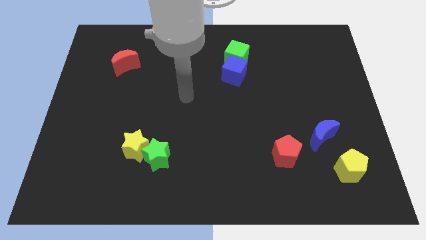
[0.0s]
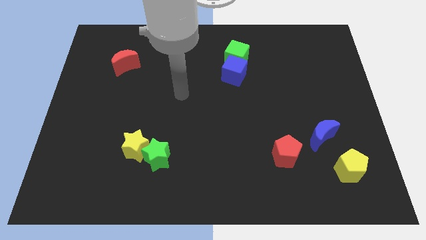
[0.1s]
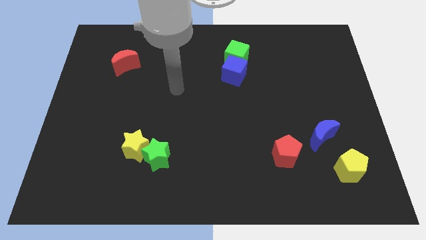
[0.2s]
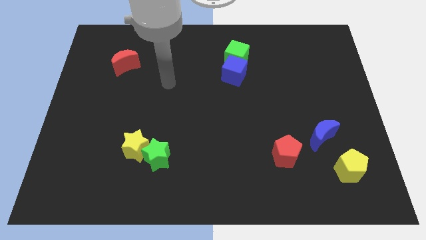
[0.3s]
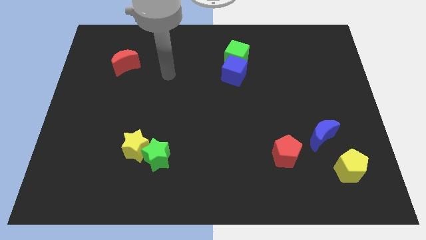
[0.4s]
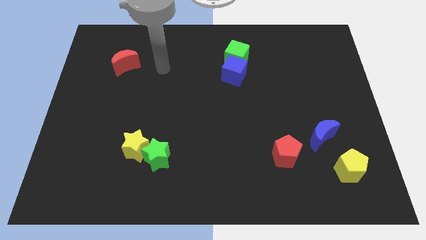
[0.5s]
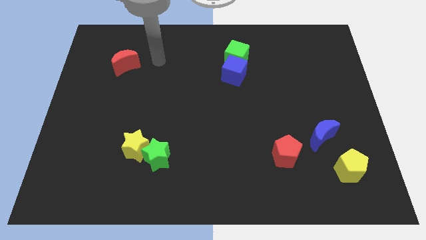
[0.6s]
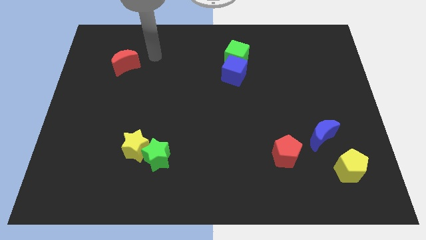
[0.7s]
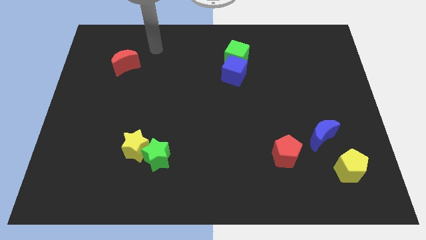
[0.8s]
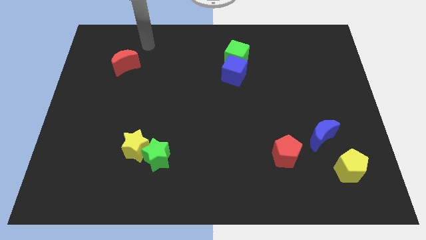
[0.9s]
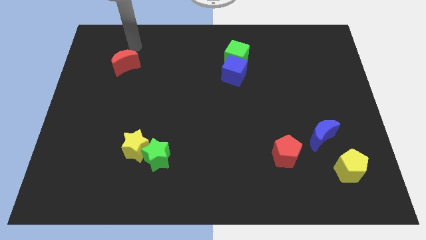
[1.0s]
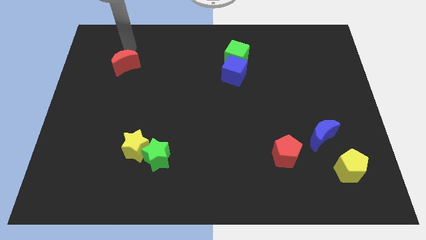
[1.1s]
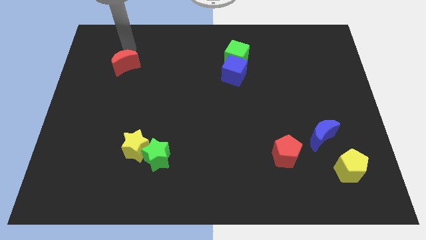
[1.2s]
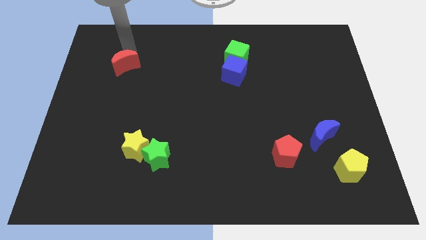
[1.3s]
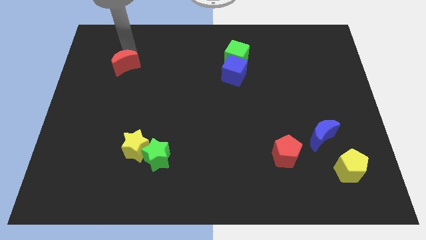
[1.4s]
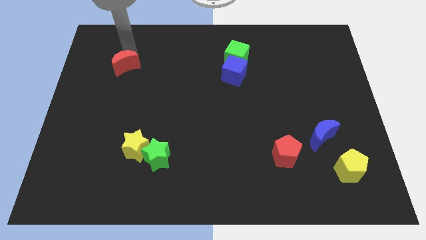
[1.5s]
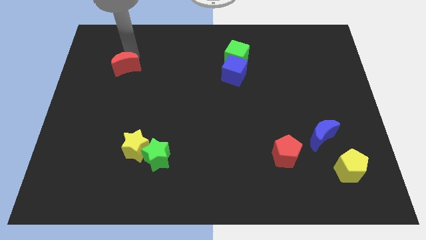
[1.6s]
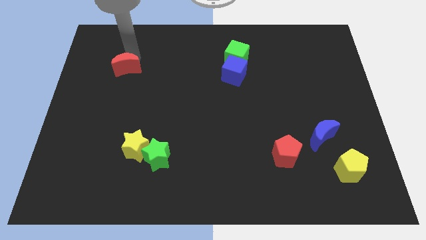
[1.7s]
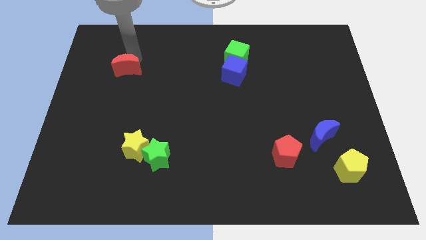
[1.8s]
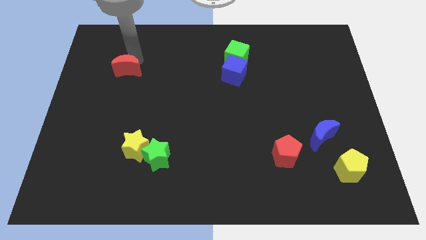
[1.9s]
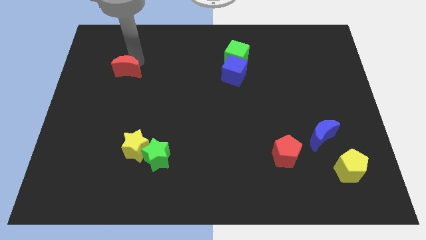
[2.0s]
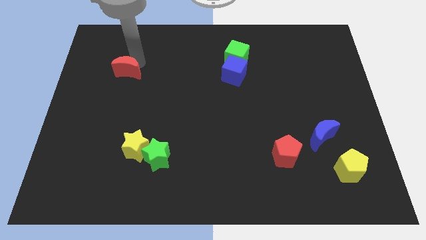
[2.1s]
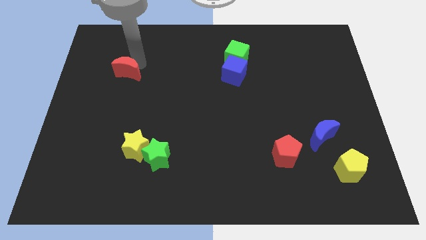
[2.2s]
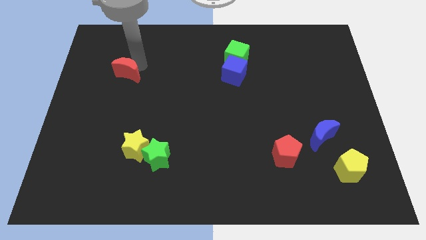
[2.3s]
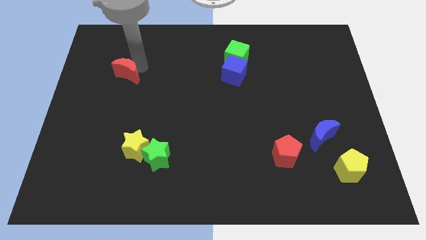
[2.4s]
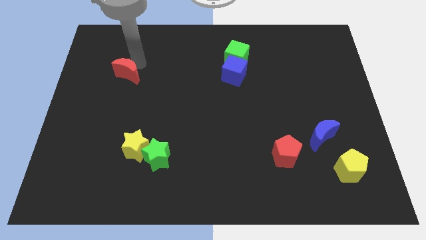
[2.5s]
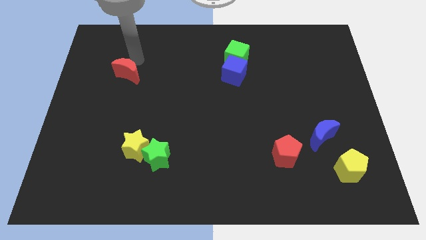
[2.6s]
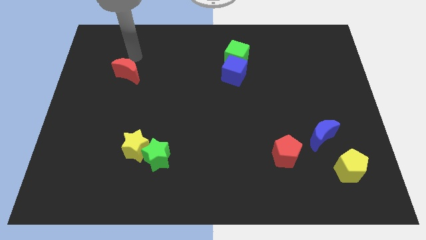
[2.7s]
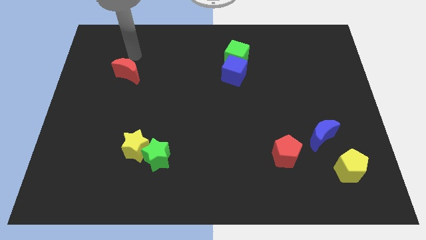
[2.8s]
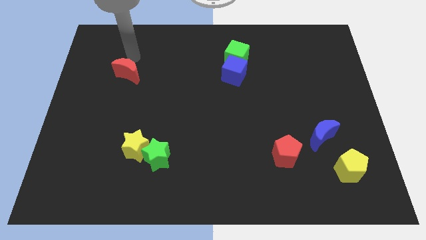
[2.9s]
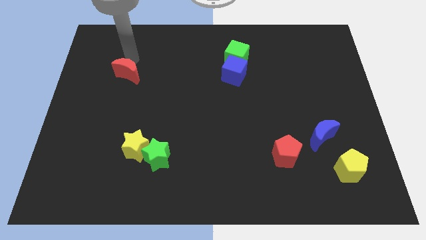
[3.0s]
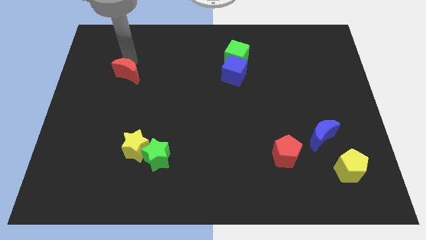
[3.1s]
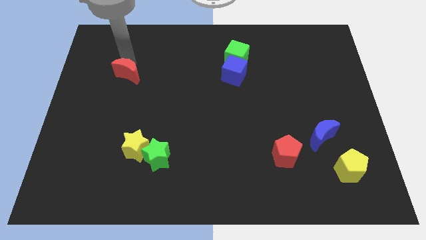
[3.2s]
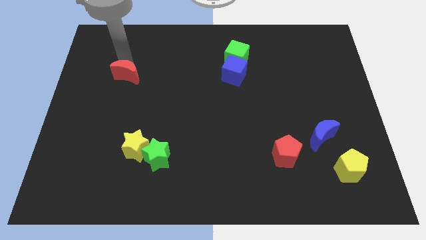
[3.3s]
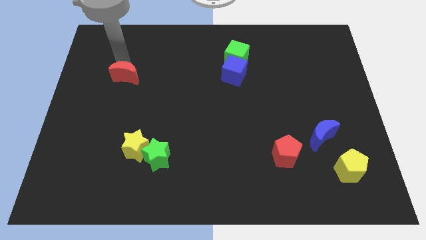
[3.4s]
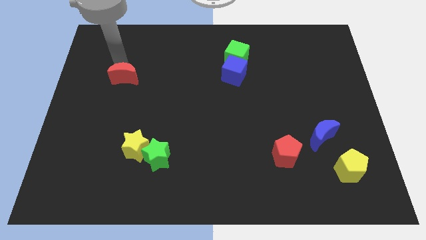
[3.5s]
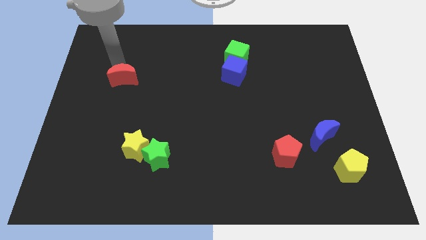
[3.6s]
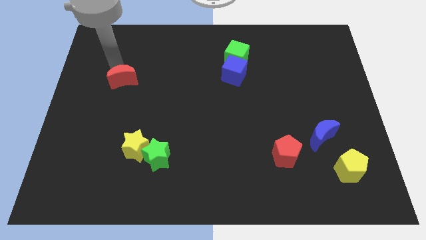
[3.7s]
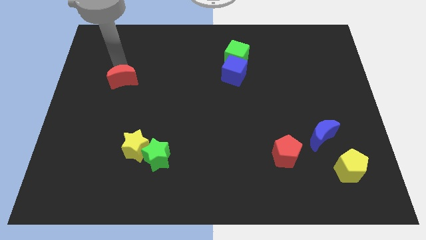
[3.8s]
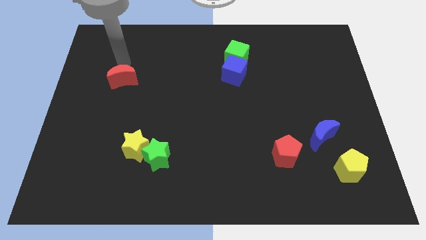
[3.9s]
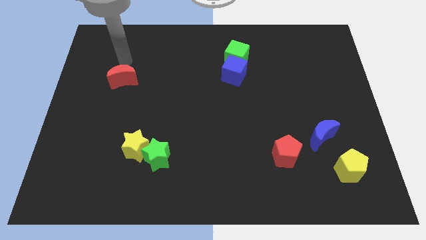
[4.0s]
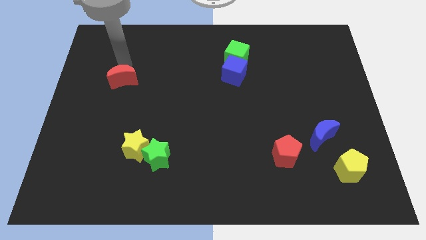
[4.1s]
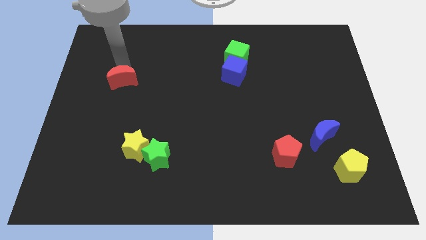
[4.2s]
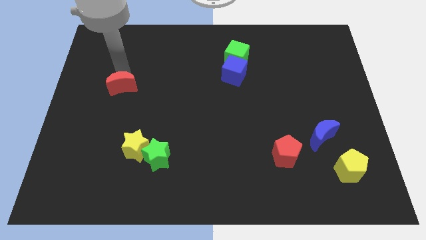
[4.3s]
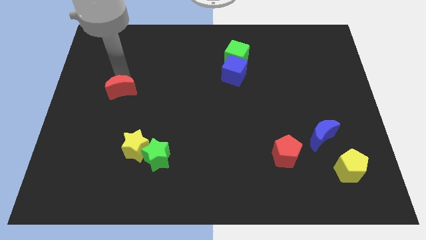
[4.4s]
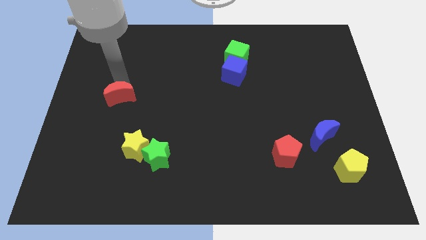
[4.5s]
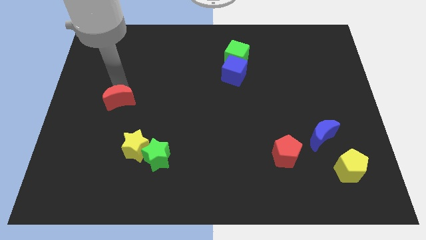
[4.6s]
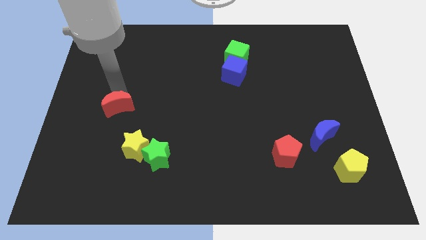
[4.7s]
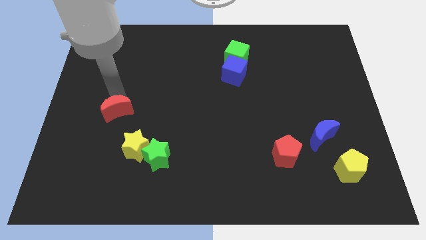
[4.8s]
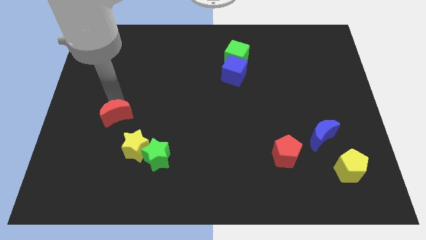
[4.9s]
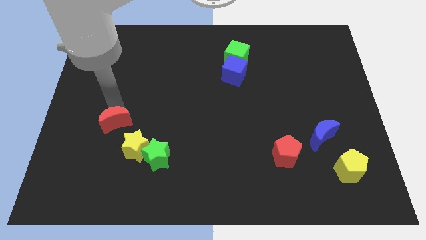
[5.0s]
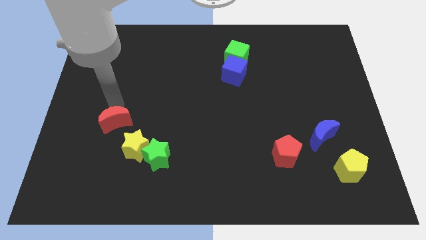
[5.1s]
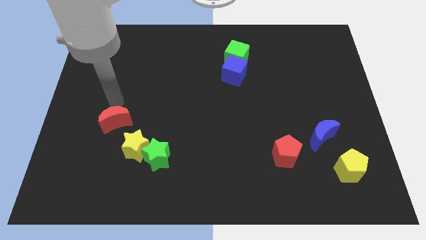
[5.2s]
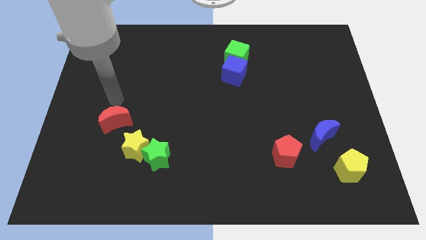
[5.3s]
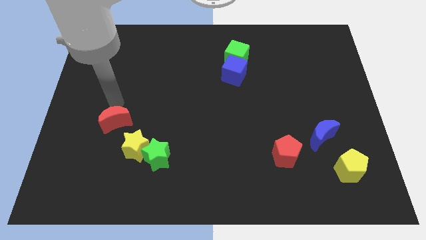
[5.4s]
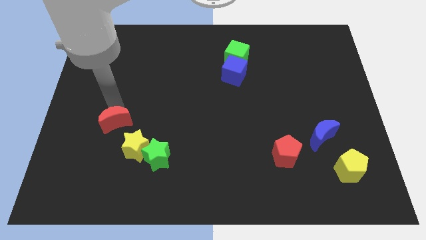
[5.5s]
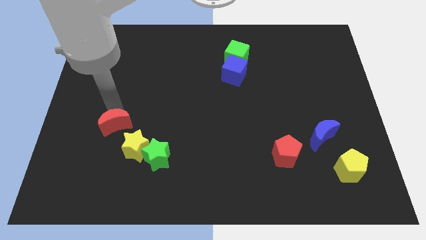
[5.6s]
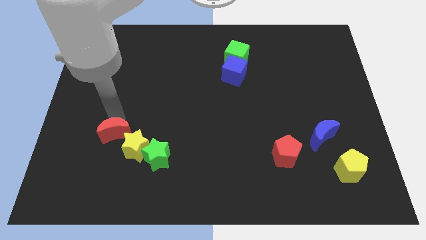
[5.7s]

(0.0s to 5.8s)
slide the red moon down

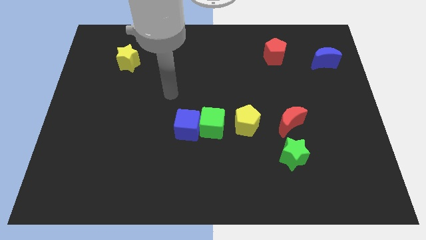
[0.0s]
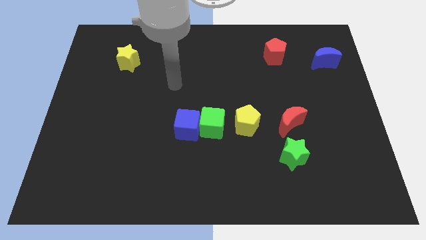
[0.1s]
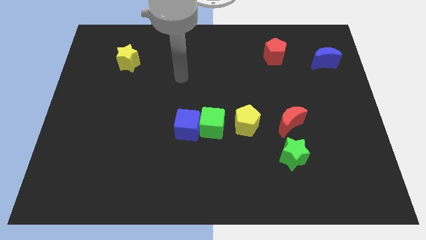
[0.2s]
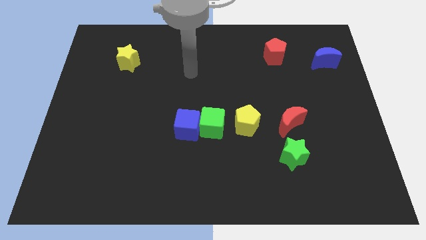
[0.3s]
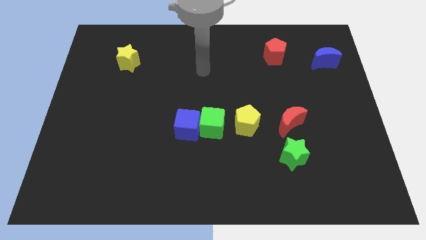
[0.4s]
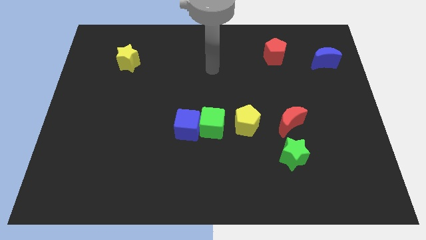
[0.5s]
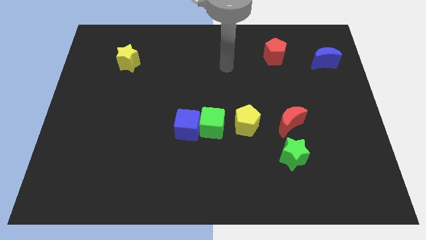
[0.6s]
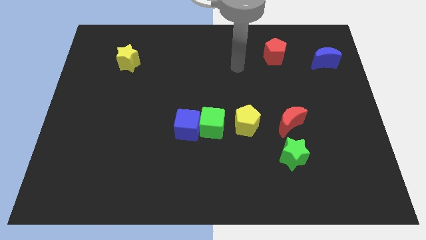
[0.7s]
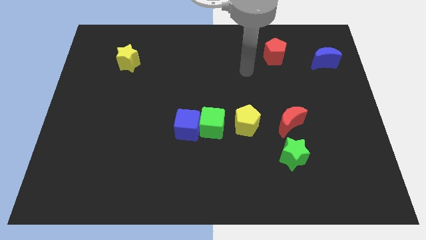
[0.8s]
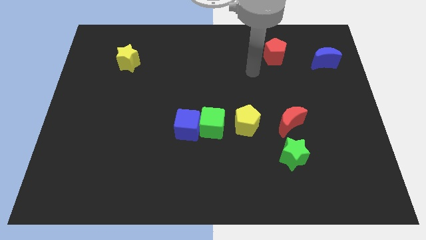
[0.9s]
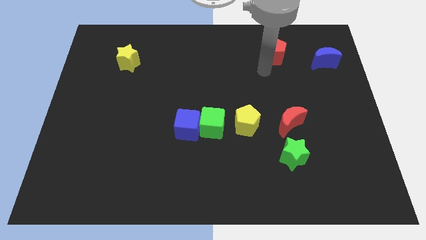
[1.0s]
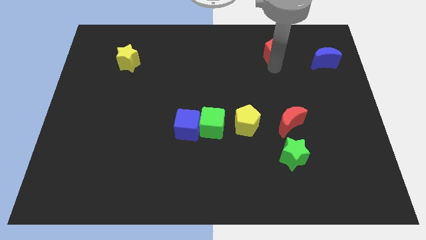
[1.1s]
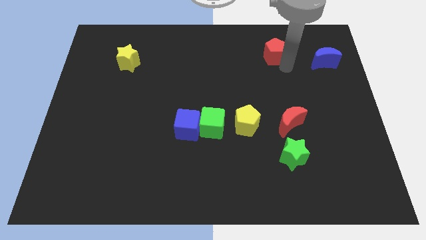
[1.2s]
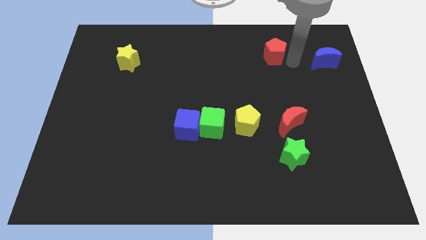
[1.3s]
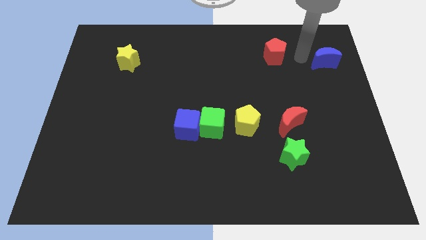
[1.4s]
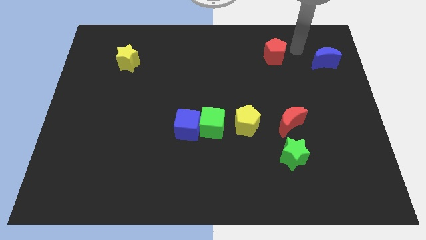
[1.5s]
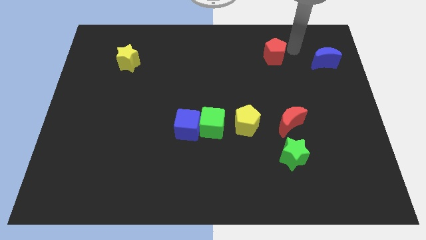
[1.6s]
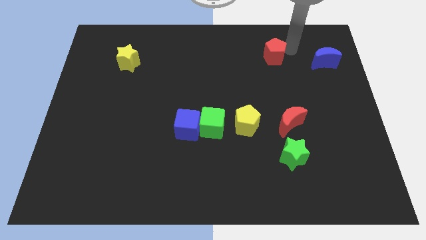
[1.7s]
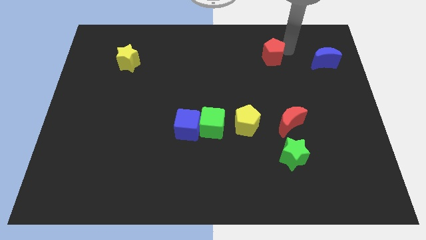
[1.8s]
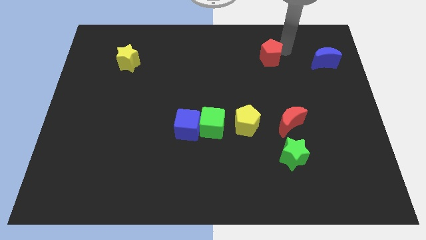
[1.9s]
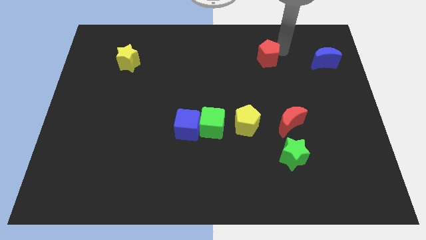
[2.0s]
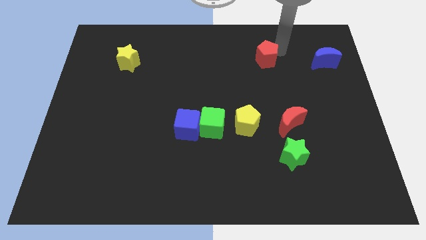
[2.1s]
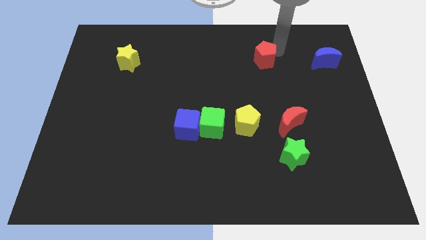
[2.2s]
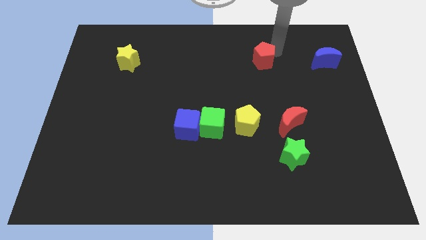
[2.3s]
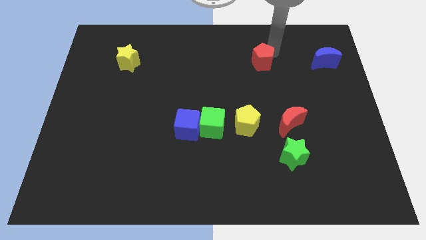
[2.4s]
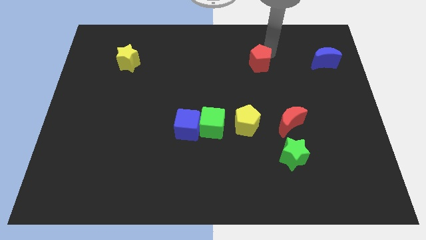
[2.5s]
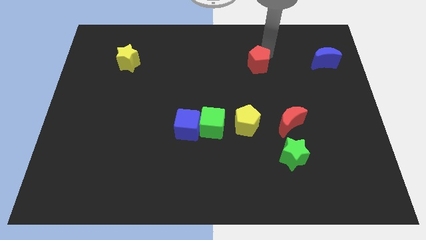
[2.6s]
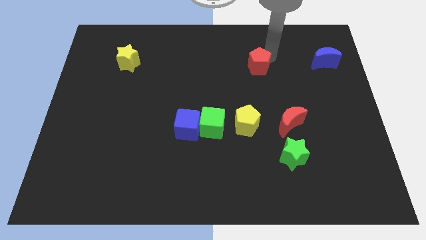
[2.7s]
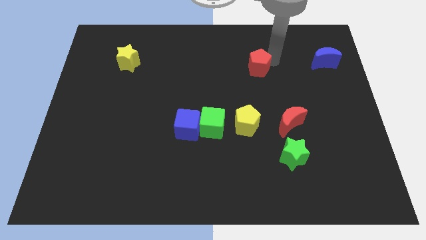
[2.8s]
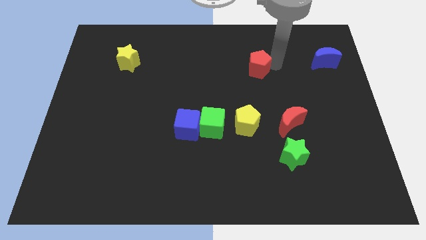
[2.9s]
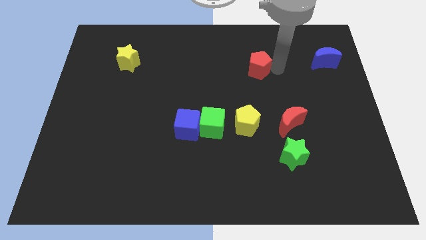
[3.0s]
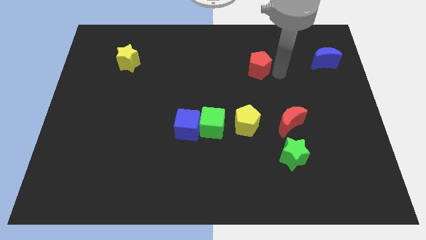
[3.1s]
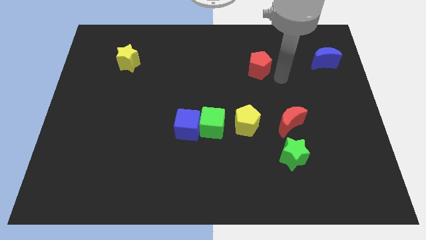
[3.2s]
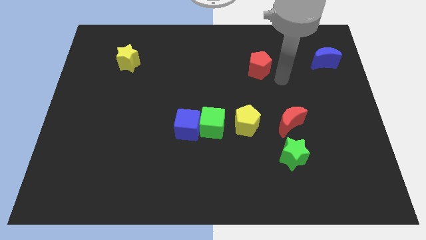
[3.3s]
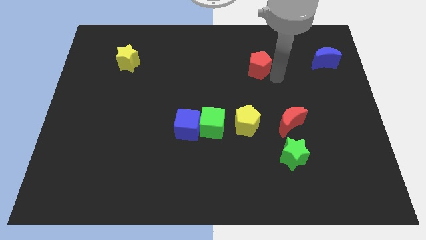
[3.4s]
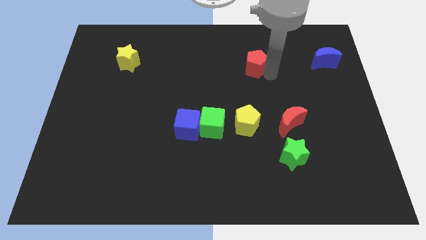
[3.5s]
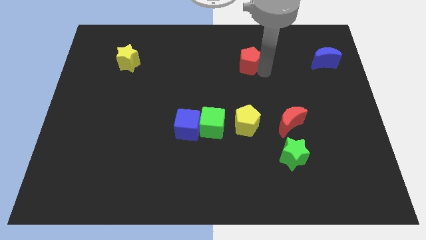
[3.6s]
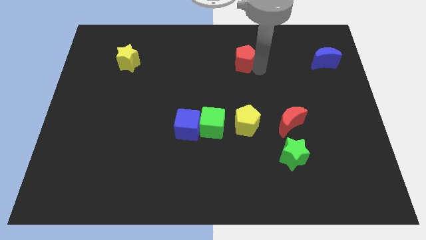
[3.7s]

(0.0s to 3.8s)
push the red pentagon a little bit left
